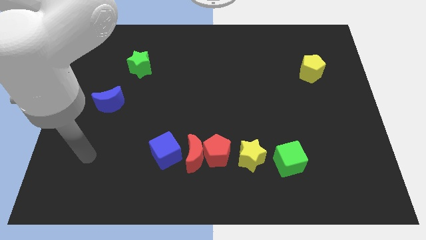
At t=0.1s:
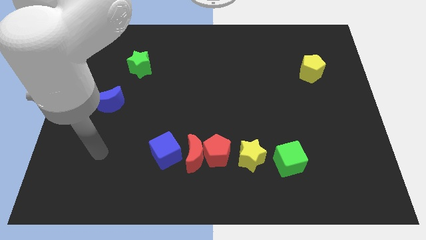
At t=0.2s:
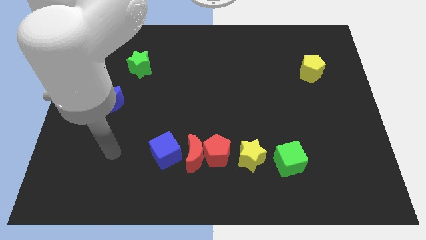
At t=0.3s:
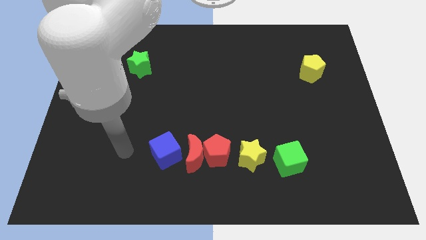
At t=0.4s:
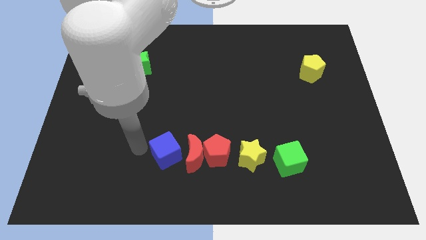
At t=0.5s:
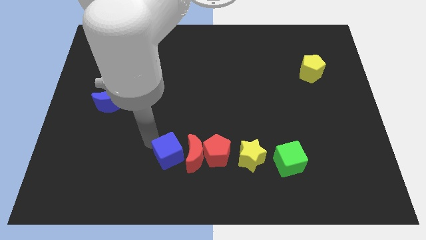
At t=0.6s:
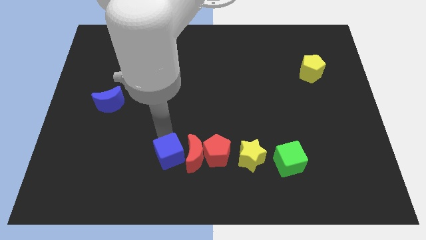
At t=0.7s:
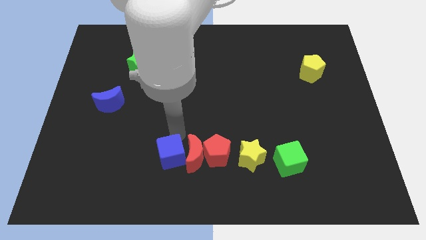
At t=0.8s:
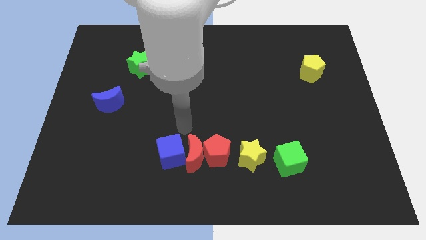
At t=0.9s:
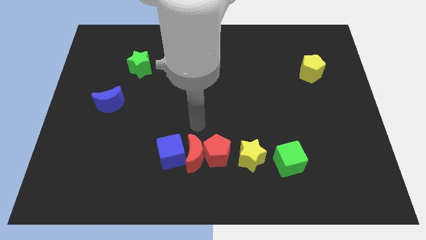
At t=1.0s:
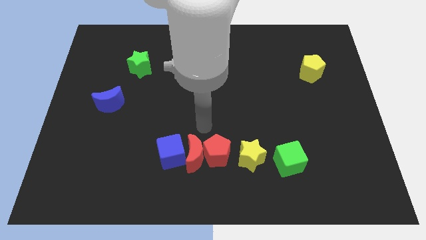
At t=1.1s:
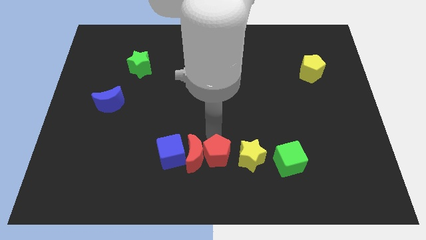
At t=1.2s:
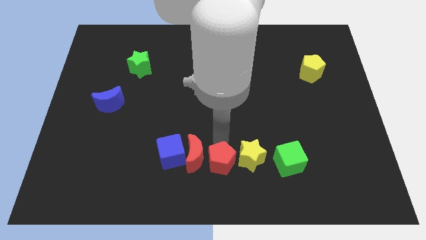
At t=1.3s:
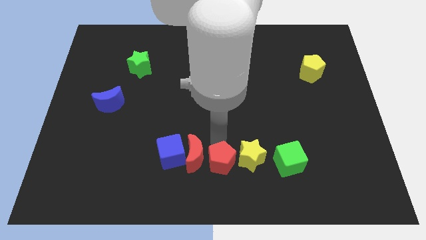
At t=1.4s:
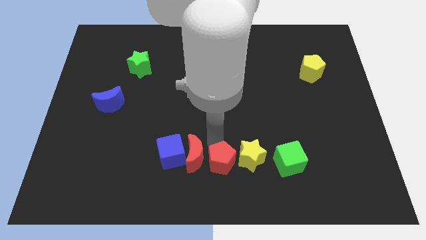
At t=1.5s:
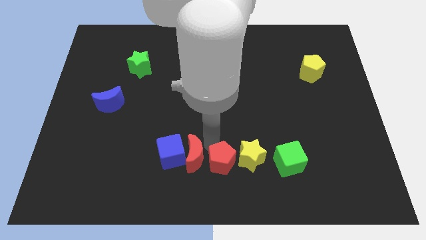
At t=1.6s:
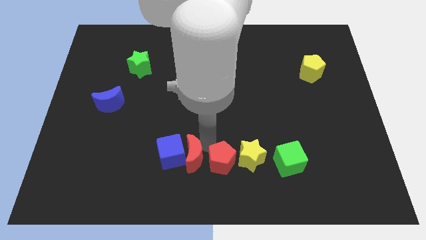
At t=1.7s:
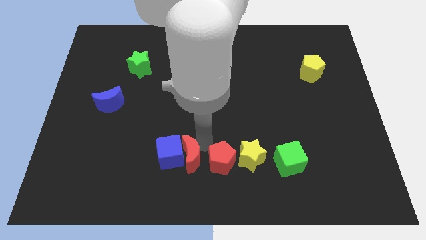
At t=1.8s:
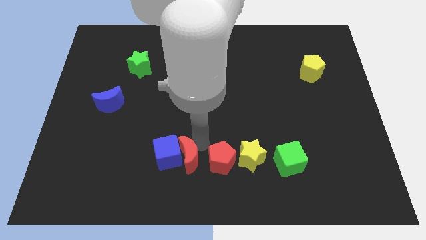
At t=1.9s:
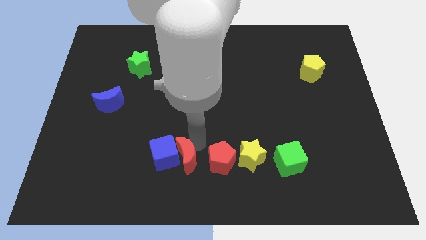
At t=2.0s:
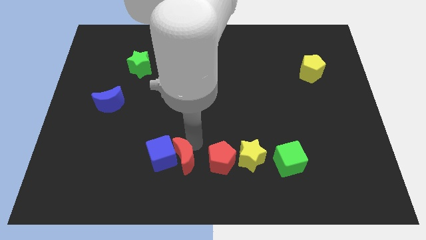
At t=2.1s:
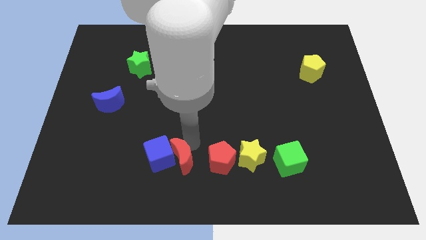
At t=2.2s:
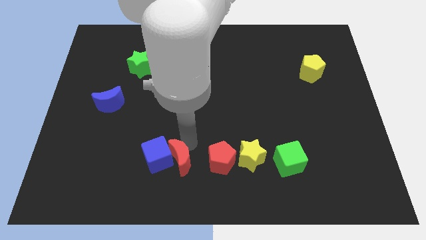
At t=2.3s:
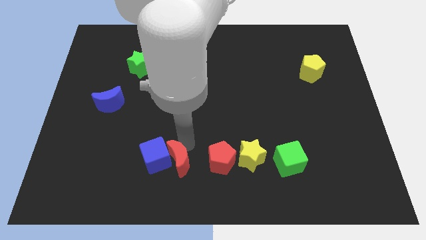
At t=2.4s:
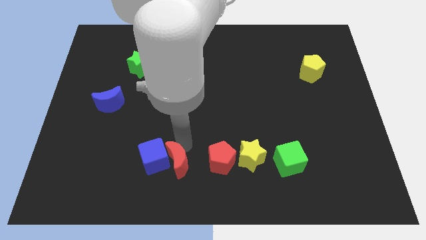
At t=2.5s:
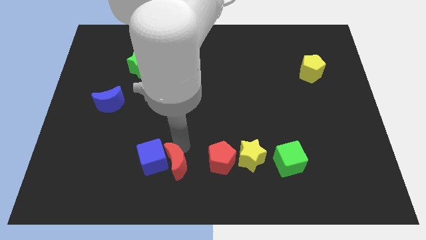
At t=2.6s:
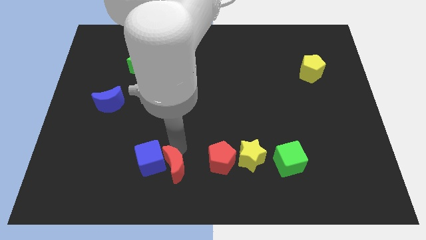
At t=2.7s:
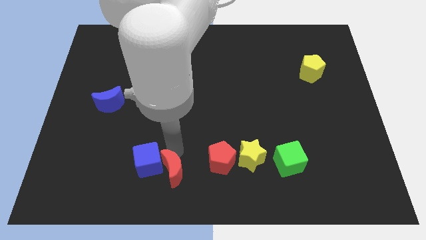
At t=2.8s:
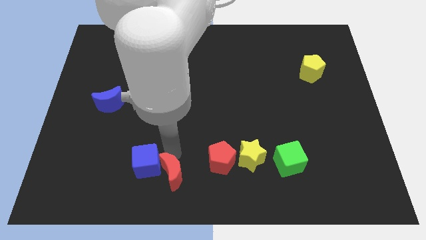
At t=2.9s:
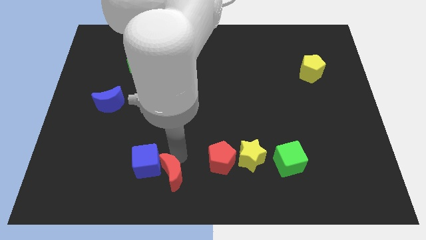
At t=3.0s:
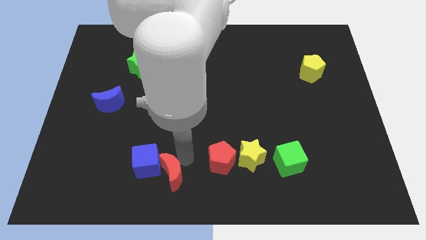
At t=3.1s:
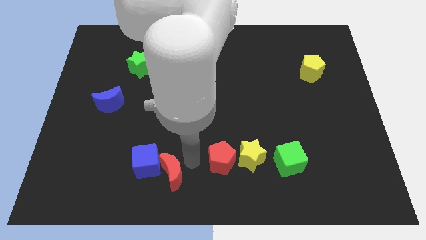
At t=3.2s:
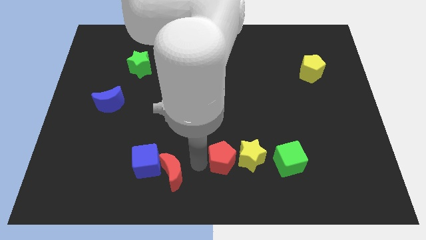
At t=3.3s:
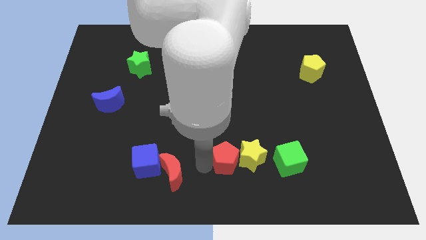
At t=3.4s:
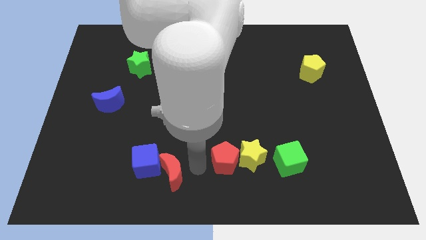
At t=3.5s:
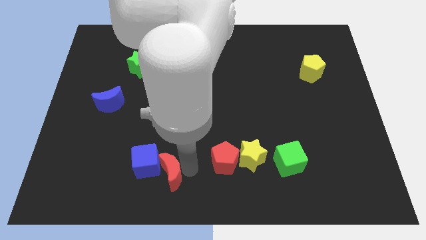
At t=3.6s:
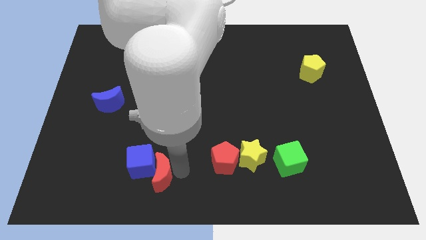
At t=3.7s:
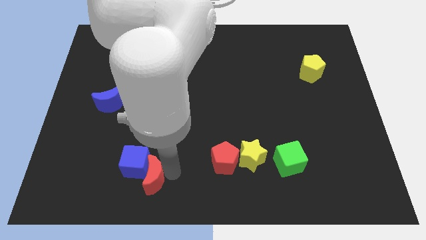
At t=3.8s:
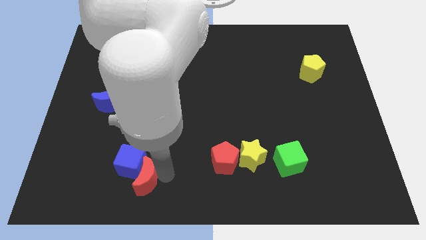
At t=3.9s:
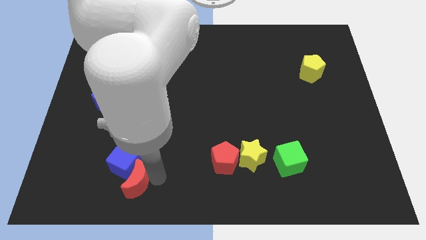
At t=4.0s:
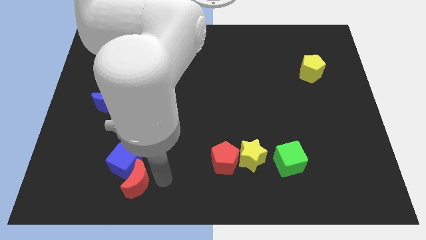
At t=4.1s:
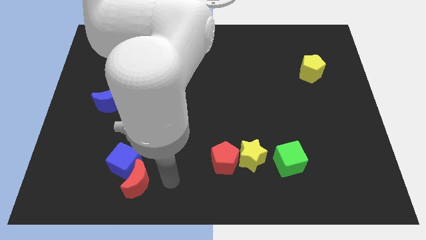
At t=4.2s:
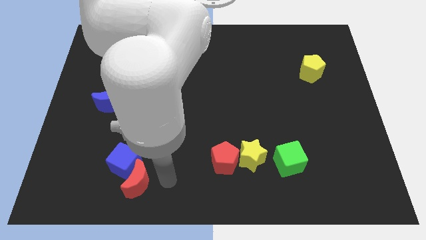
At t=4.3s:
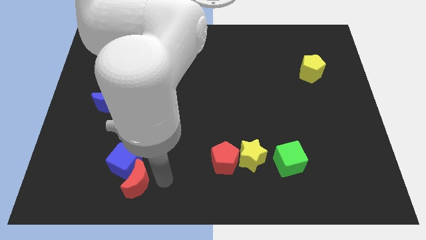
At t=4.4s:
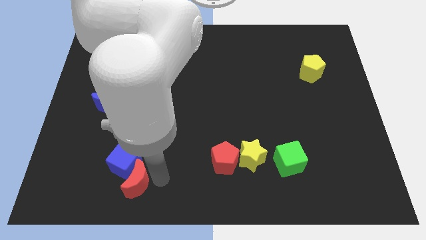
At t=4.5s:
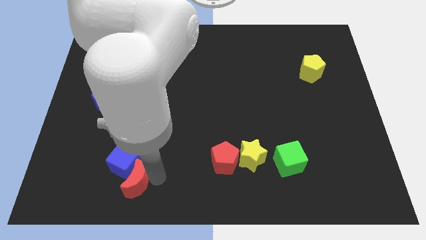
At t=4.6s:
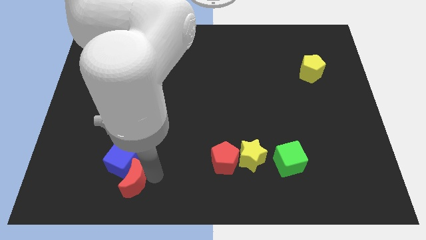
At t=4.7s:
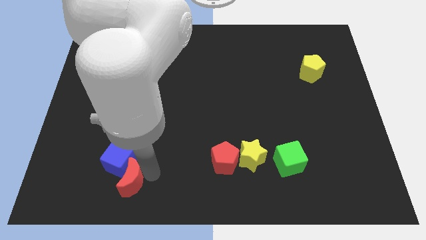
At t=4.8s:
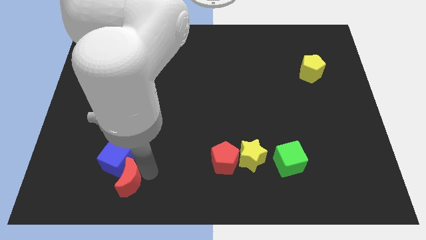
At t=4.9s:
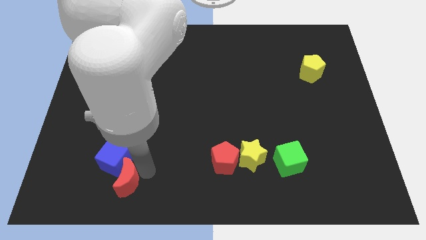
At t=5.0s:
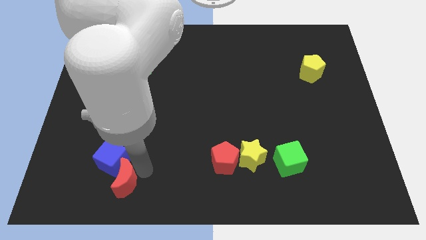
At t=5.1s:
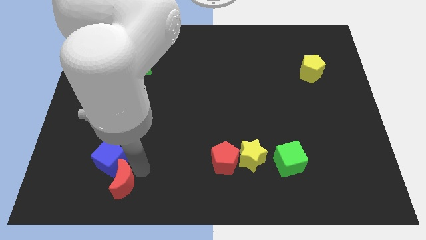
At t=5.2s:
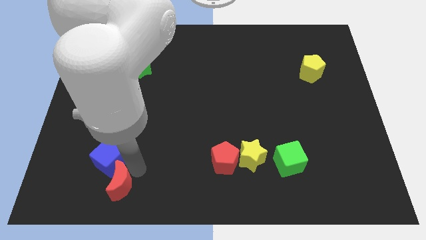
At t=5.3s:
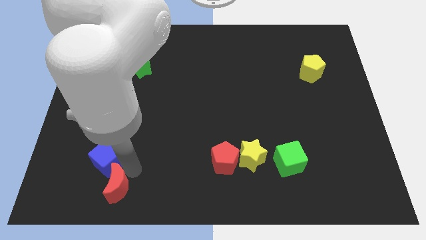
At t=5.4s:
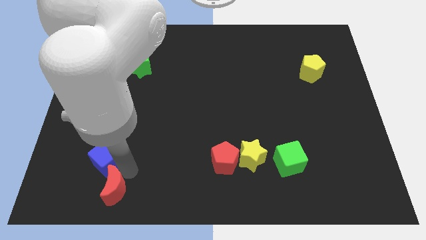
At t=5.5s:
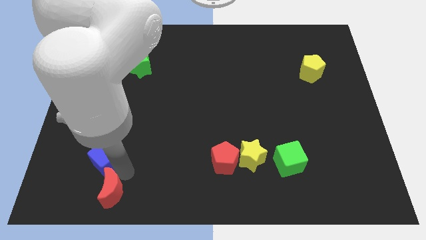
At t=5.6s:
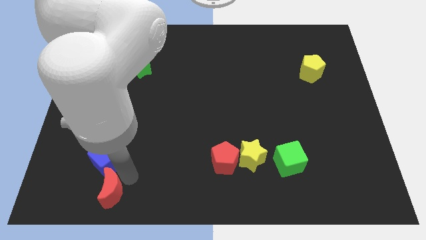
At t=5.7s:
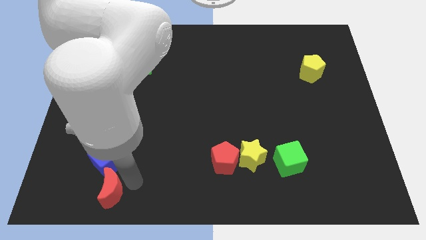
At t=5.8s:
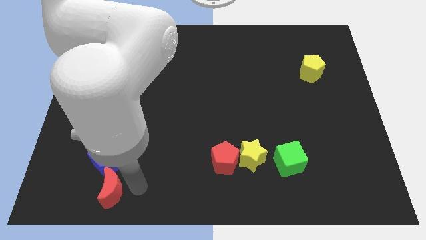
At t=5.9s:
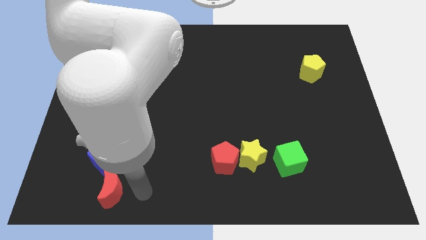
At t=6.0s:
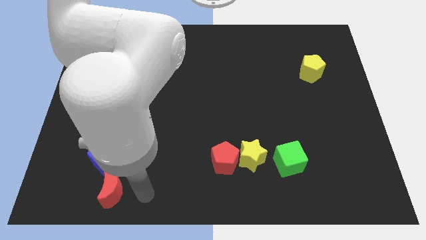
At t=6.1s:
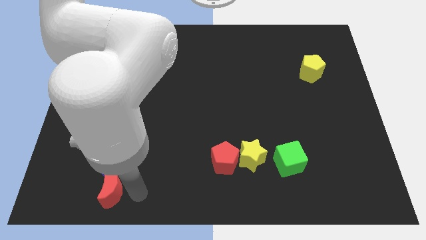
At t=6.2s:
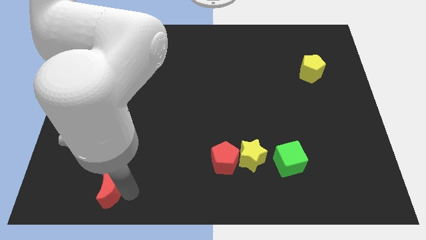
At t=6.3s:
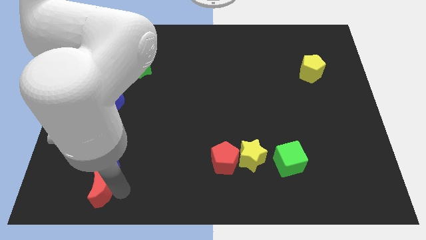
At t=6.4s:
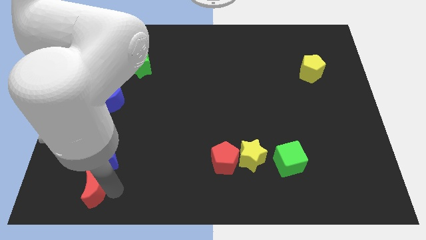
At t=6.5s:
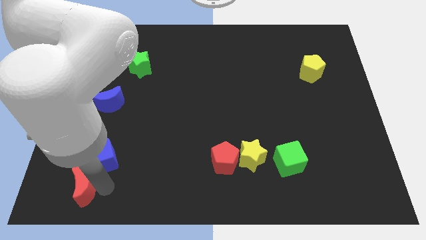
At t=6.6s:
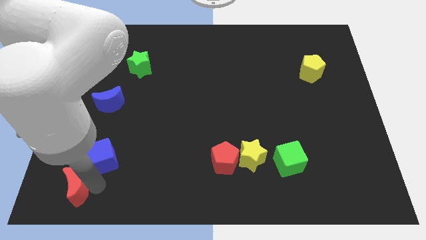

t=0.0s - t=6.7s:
move the red moon to the lower left corner

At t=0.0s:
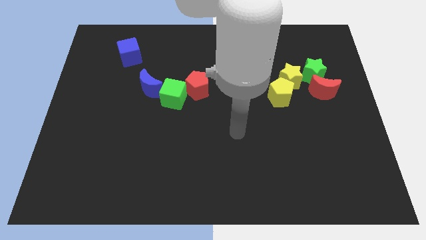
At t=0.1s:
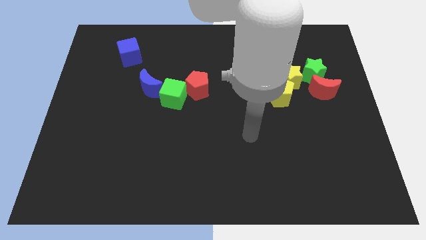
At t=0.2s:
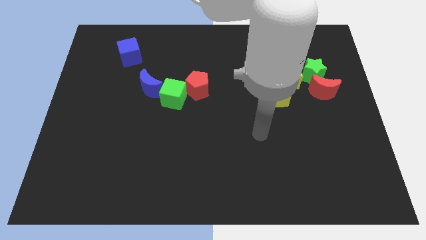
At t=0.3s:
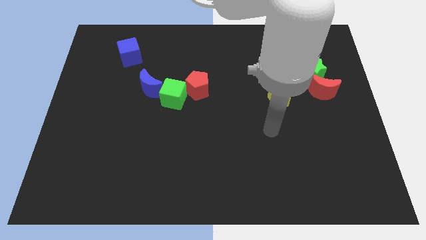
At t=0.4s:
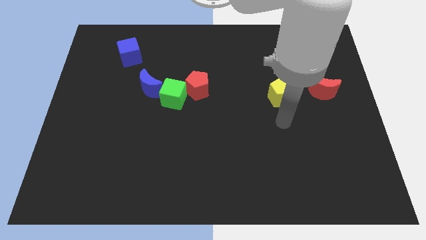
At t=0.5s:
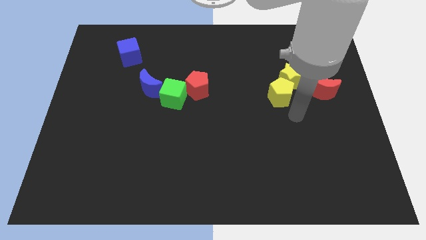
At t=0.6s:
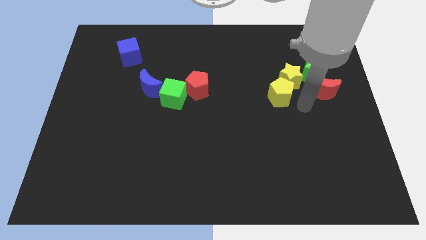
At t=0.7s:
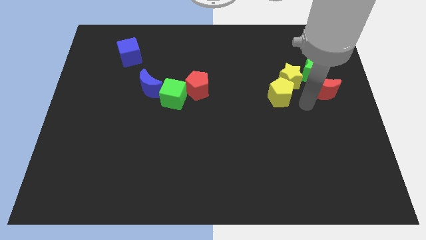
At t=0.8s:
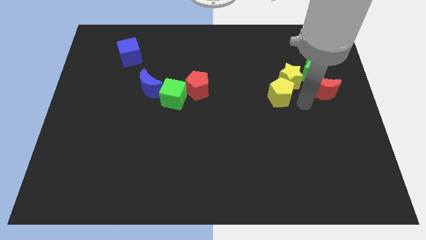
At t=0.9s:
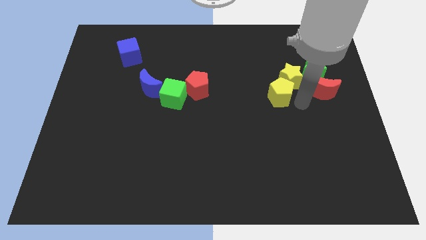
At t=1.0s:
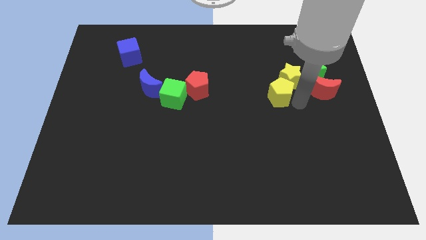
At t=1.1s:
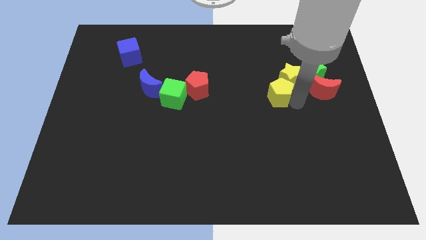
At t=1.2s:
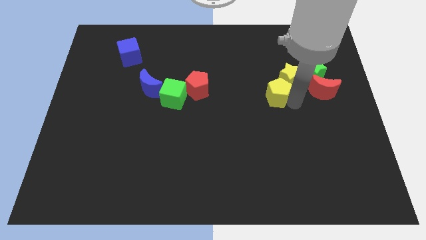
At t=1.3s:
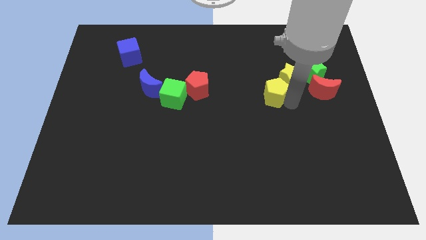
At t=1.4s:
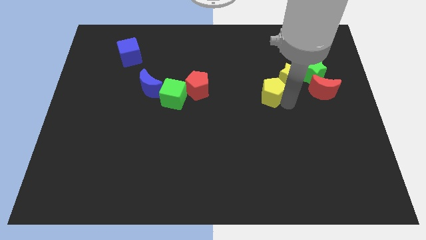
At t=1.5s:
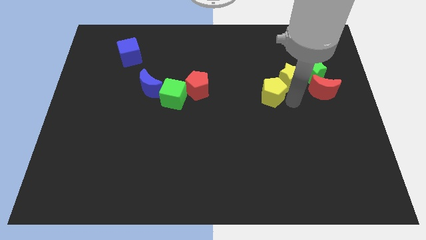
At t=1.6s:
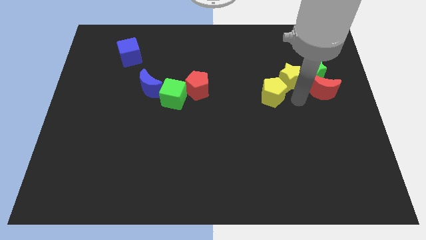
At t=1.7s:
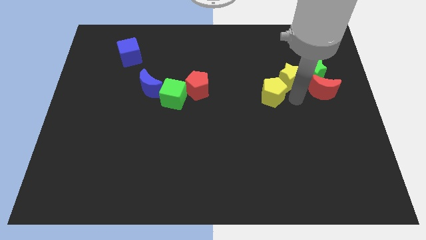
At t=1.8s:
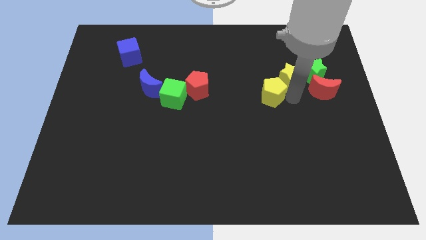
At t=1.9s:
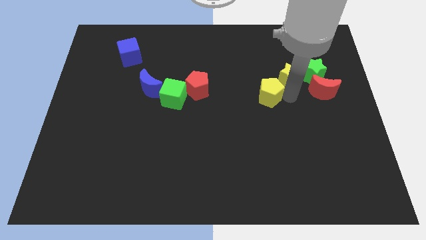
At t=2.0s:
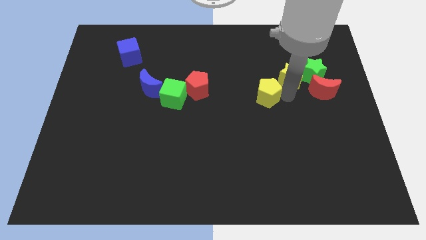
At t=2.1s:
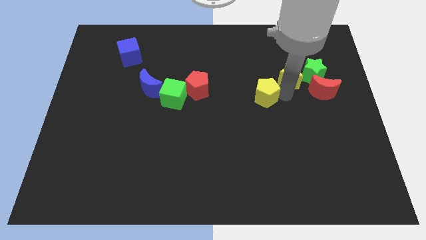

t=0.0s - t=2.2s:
slide the yellow pentagon to the middle of the board
